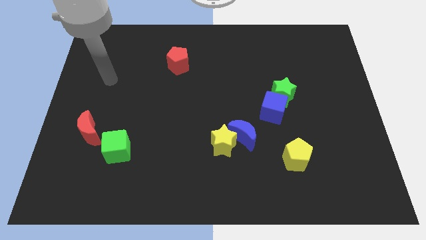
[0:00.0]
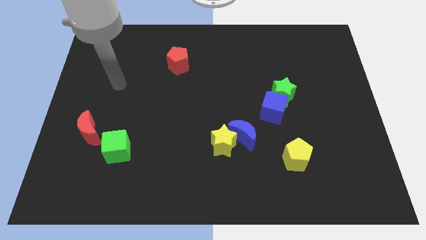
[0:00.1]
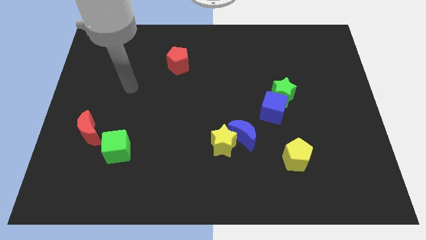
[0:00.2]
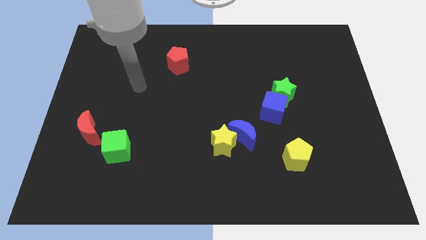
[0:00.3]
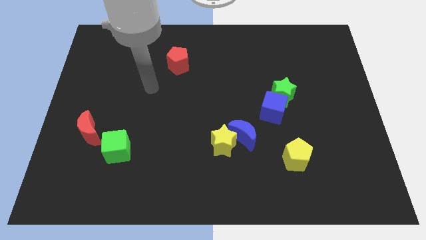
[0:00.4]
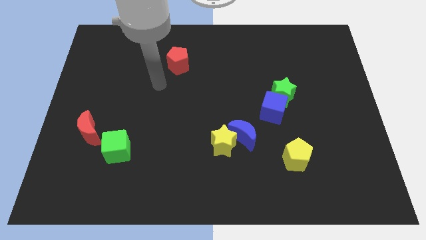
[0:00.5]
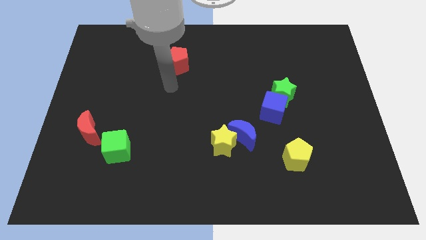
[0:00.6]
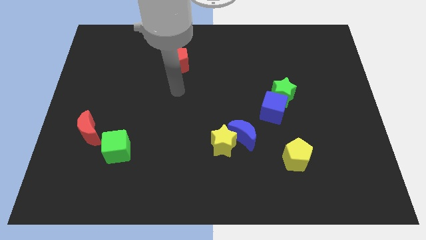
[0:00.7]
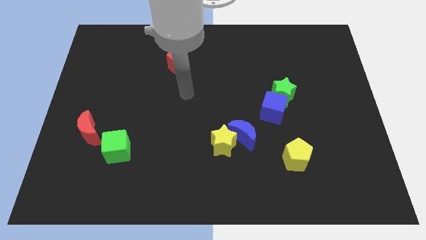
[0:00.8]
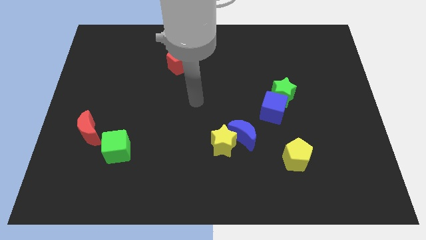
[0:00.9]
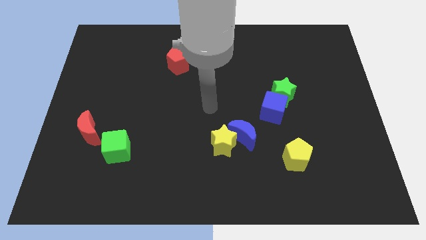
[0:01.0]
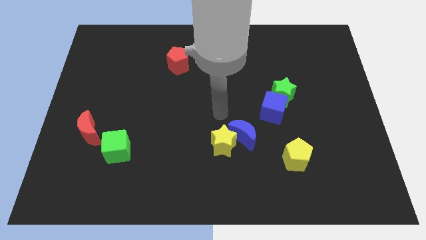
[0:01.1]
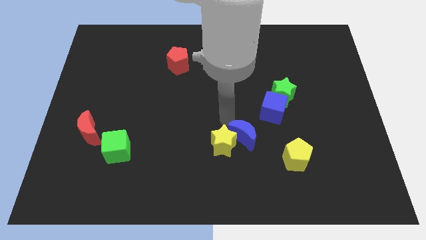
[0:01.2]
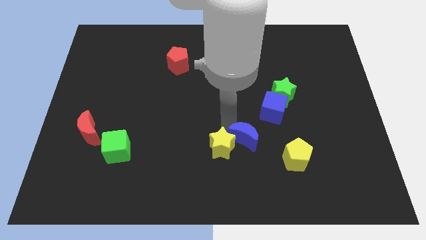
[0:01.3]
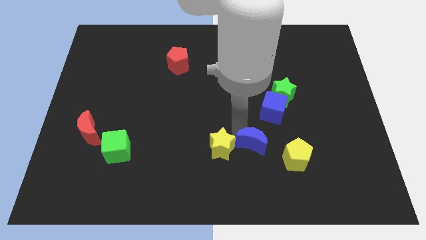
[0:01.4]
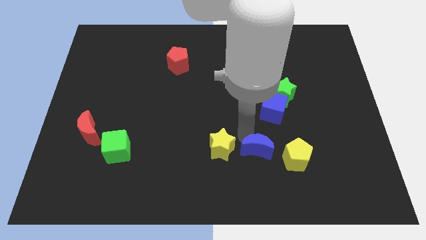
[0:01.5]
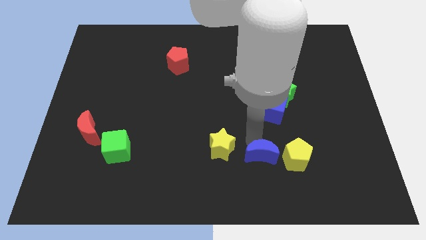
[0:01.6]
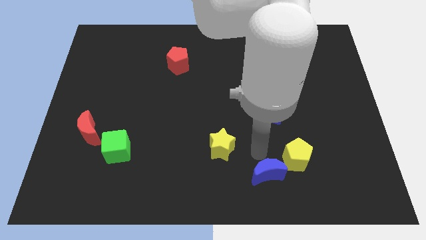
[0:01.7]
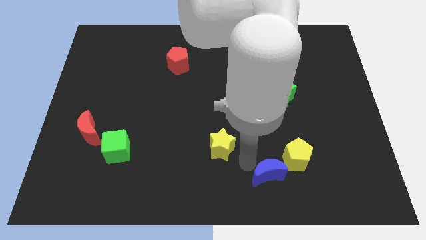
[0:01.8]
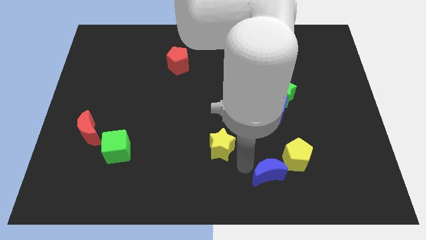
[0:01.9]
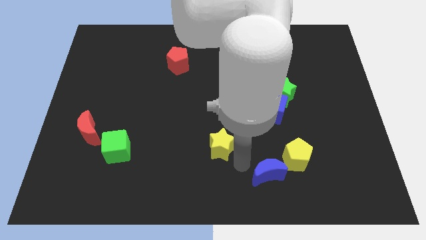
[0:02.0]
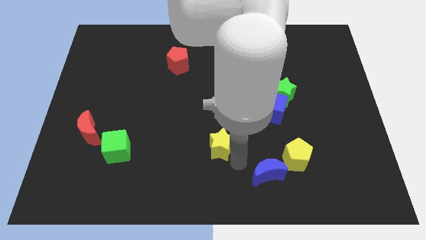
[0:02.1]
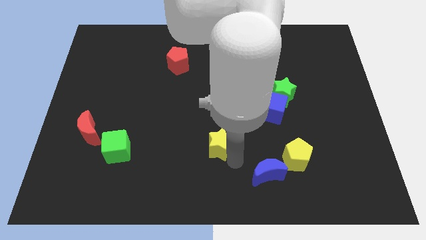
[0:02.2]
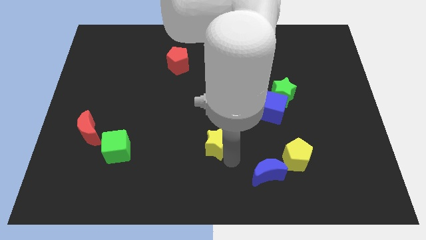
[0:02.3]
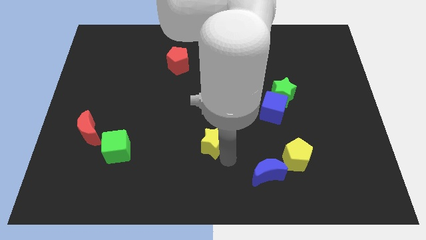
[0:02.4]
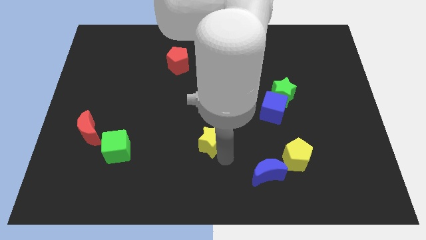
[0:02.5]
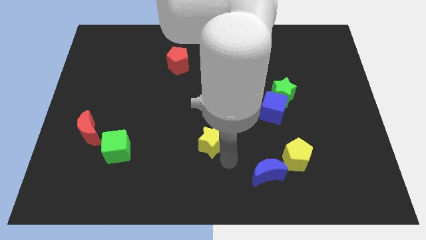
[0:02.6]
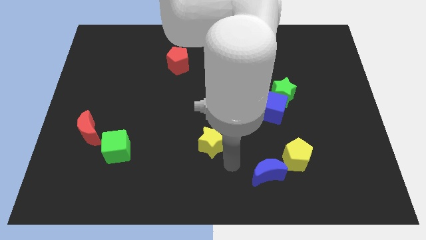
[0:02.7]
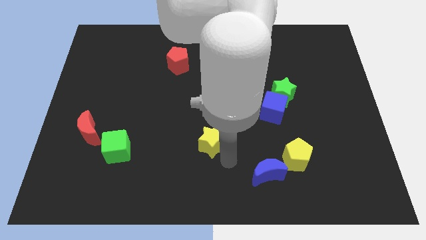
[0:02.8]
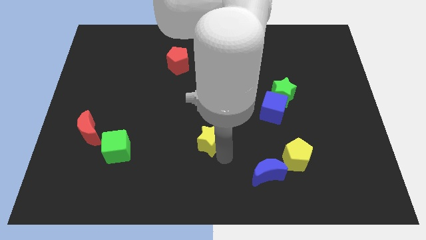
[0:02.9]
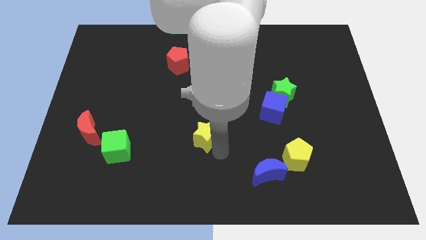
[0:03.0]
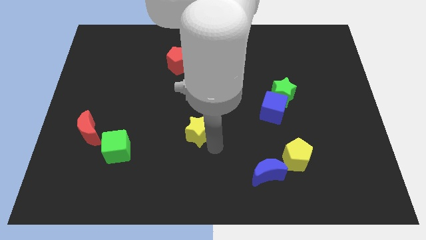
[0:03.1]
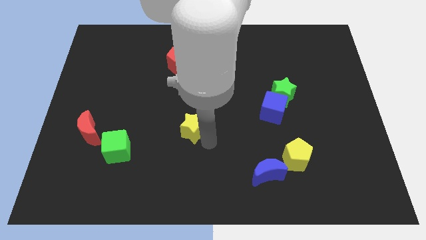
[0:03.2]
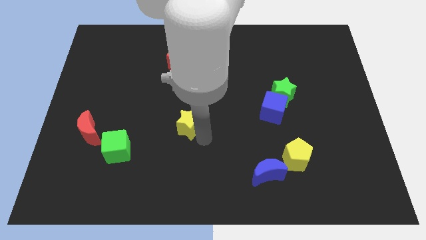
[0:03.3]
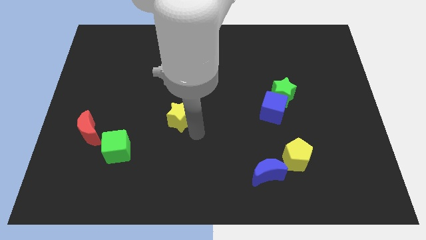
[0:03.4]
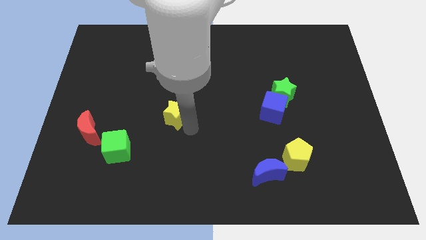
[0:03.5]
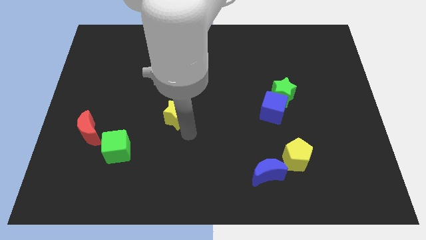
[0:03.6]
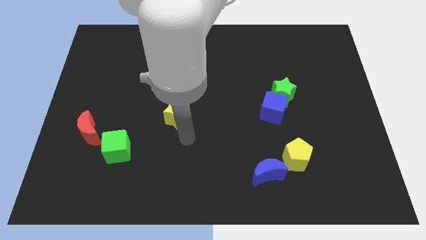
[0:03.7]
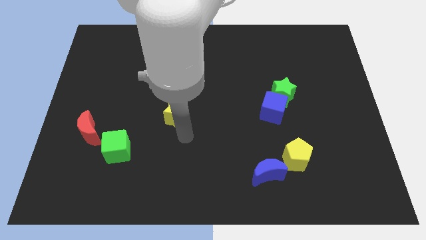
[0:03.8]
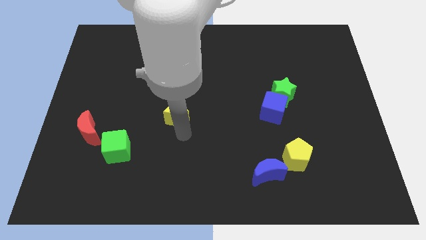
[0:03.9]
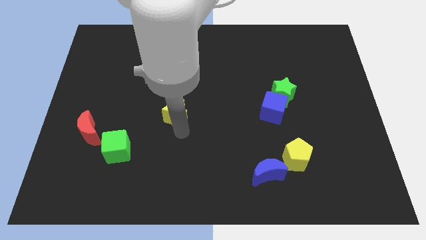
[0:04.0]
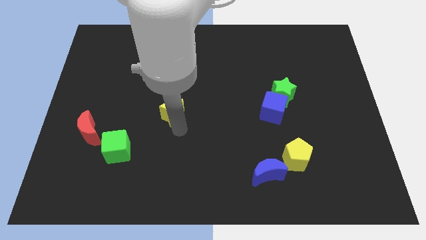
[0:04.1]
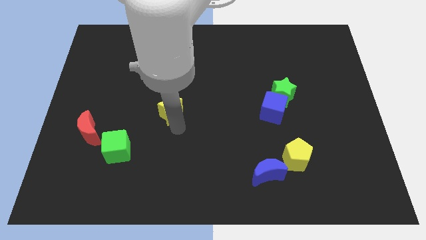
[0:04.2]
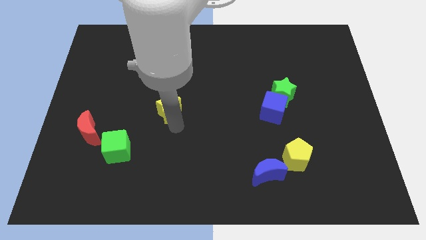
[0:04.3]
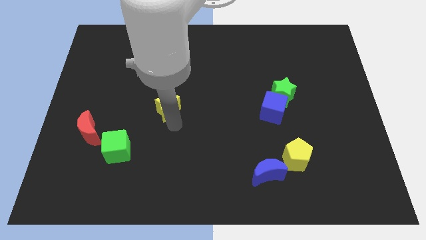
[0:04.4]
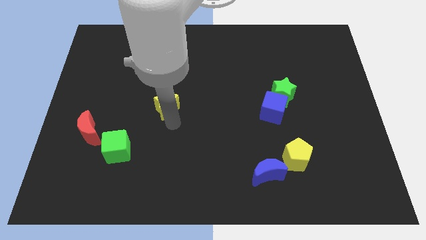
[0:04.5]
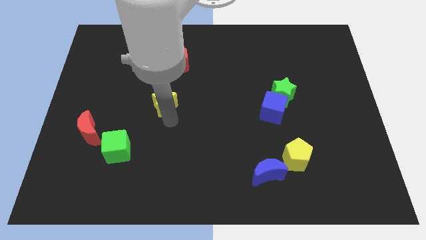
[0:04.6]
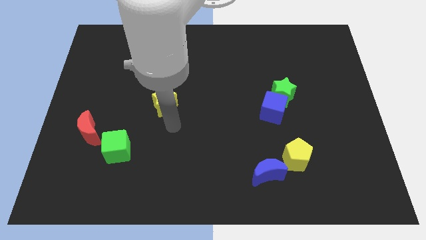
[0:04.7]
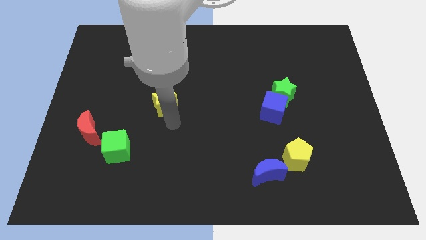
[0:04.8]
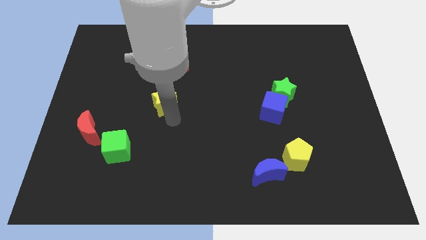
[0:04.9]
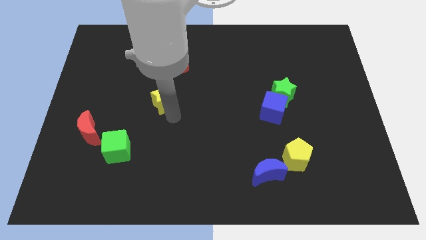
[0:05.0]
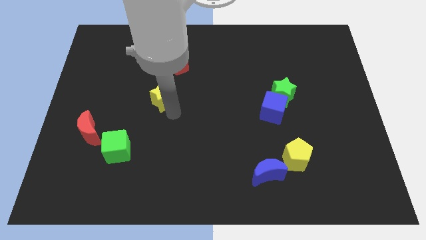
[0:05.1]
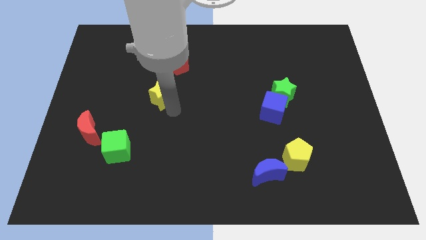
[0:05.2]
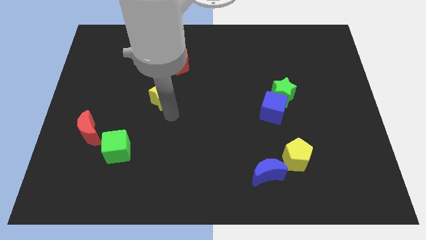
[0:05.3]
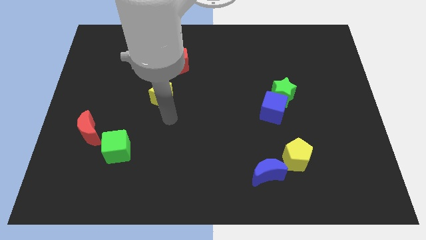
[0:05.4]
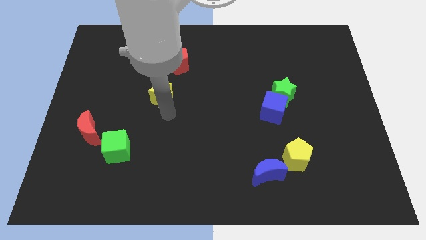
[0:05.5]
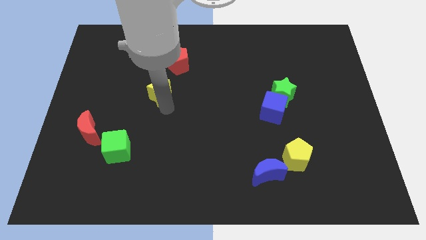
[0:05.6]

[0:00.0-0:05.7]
put the yellow star diagonally down and to the left of the red pentagon

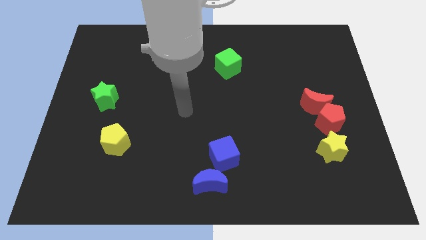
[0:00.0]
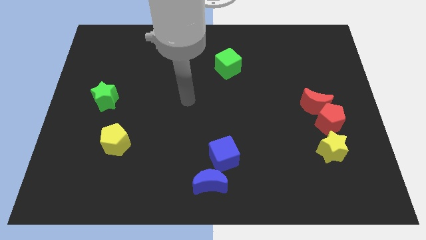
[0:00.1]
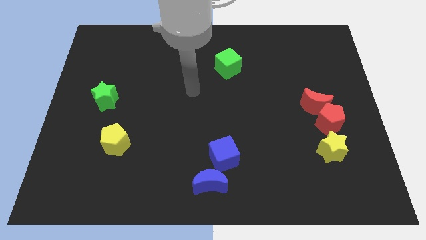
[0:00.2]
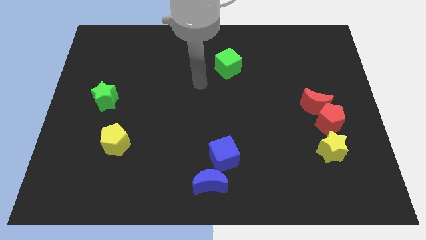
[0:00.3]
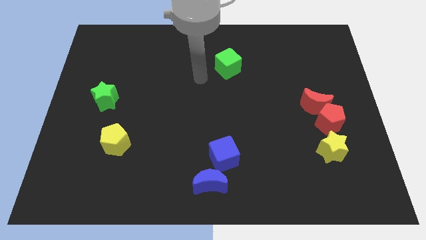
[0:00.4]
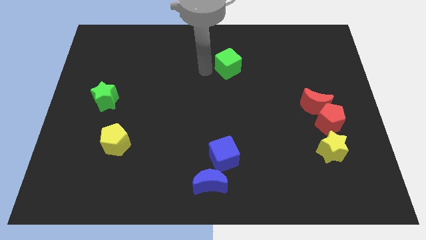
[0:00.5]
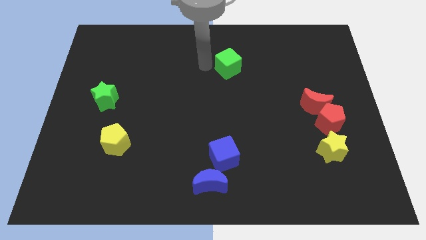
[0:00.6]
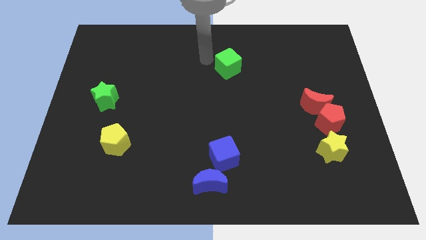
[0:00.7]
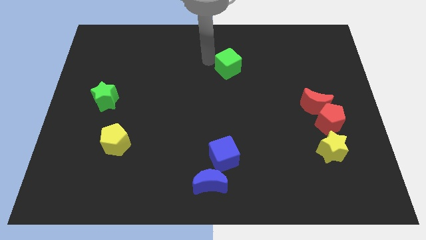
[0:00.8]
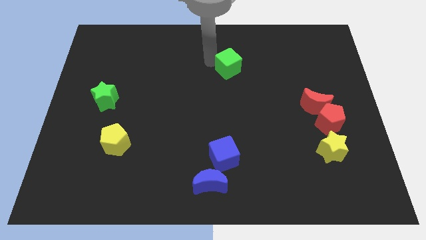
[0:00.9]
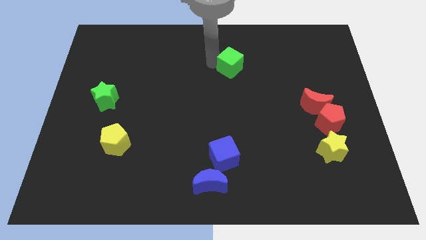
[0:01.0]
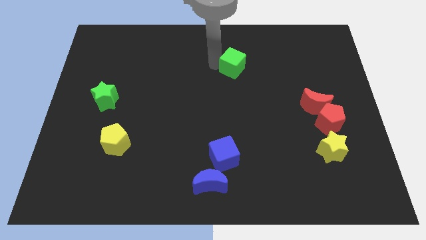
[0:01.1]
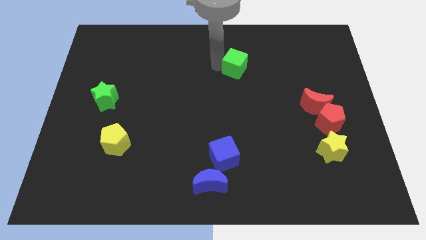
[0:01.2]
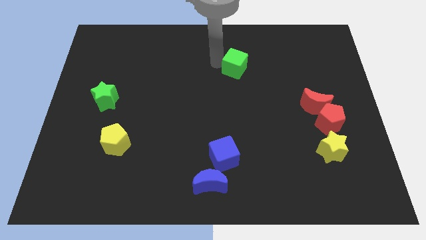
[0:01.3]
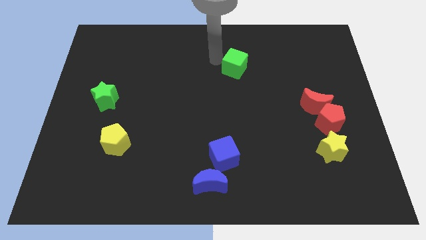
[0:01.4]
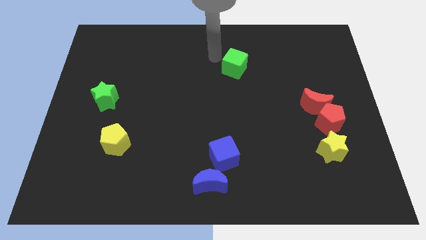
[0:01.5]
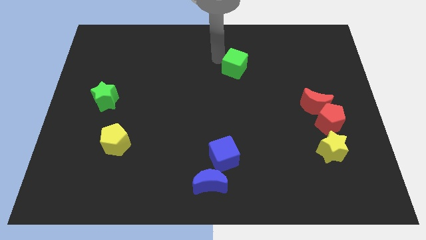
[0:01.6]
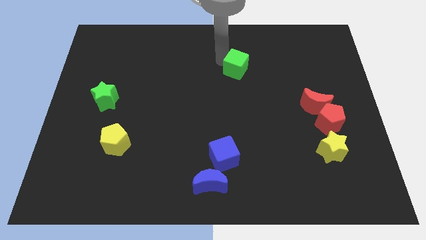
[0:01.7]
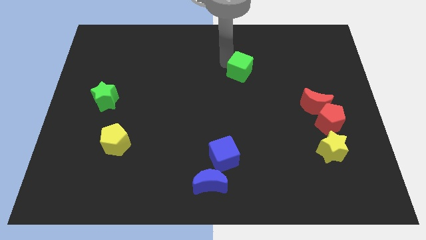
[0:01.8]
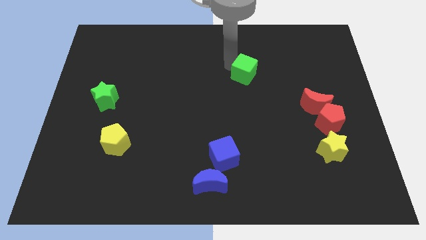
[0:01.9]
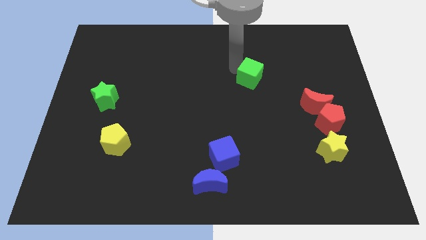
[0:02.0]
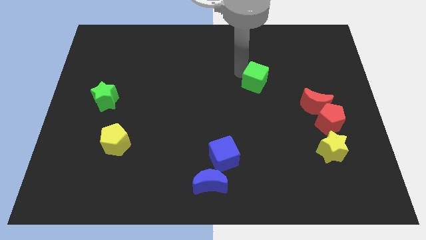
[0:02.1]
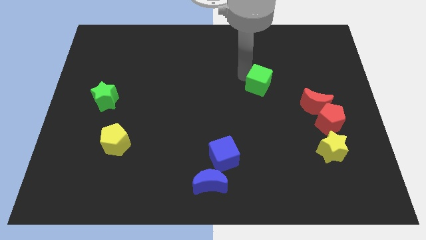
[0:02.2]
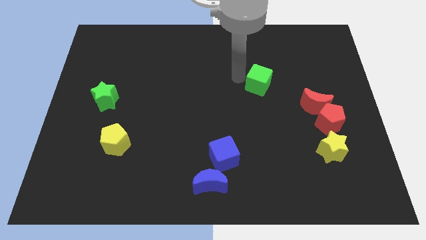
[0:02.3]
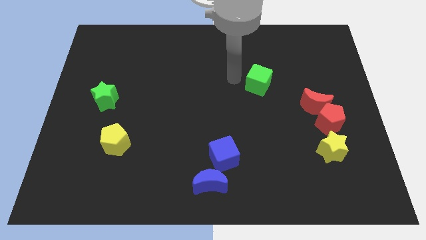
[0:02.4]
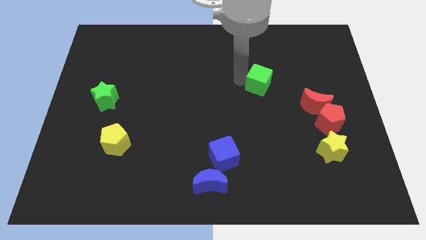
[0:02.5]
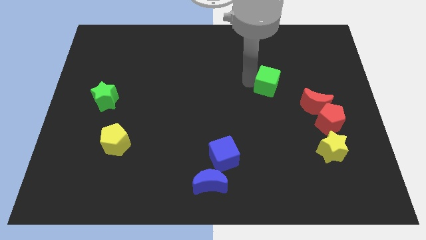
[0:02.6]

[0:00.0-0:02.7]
move the green cube diagonally up and to the left of the red moon
